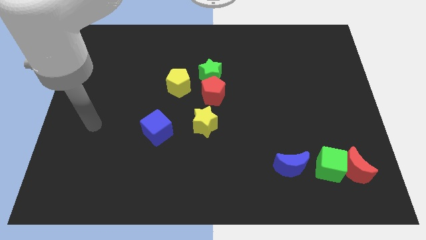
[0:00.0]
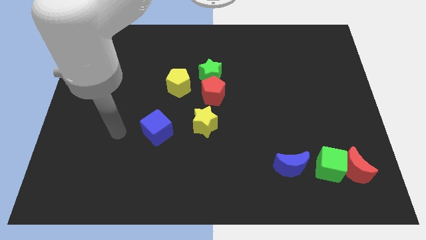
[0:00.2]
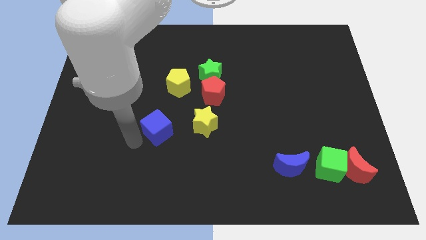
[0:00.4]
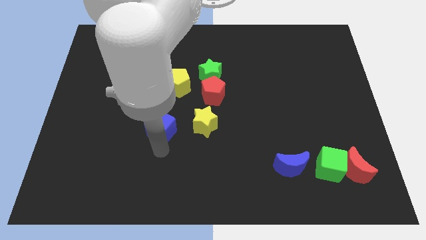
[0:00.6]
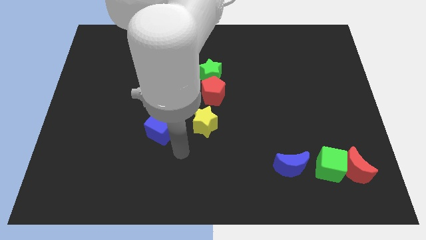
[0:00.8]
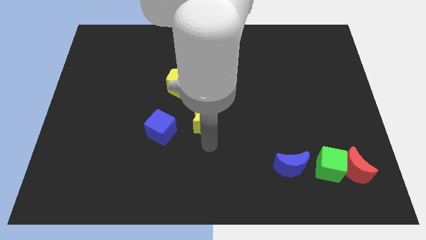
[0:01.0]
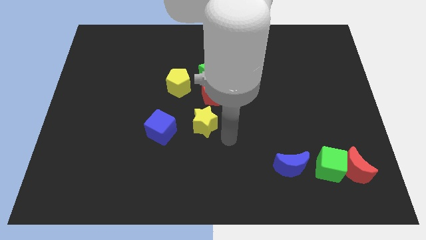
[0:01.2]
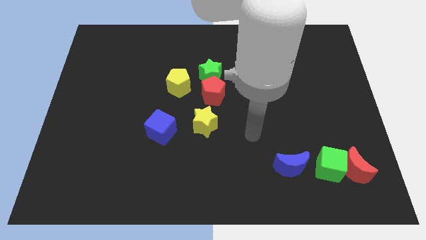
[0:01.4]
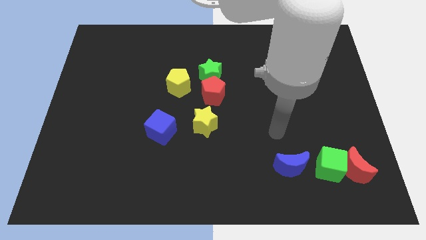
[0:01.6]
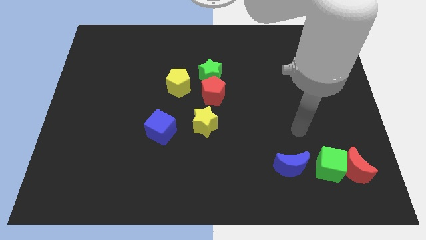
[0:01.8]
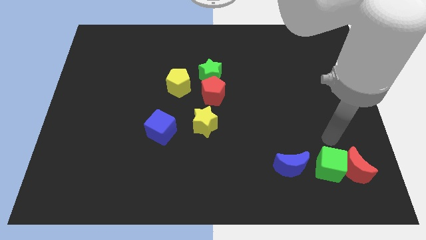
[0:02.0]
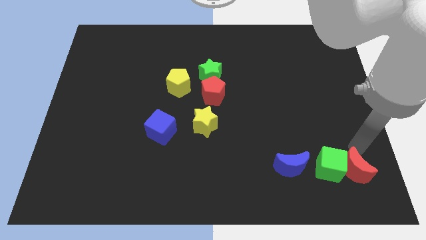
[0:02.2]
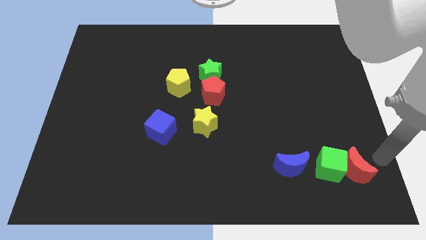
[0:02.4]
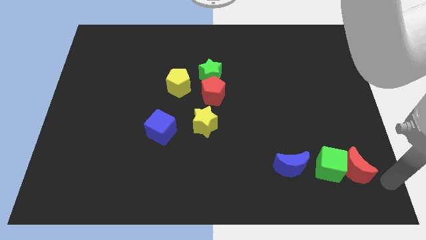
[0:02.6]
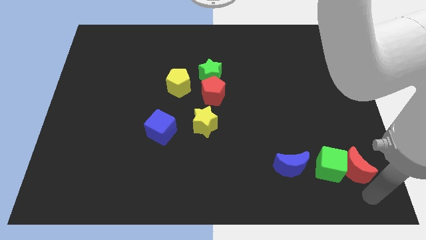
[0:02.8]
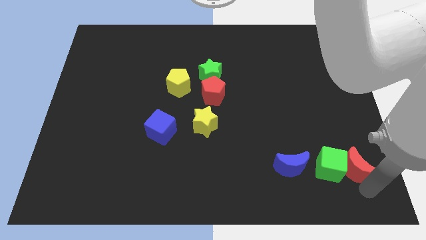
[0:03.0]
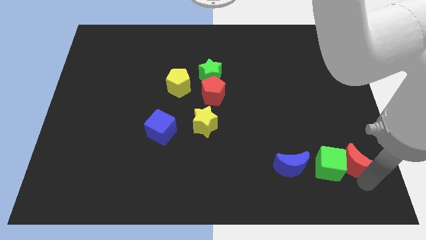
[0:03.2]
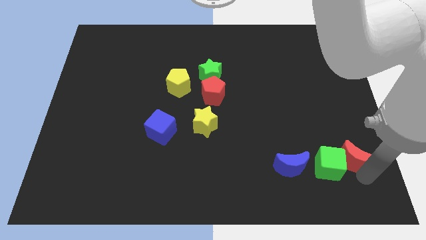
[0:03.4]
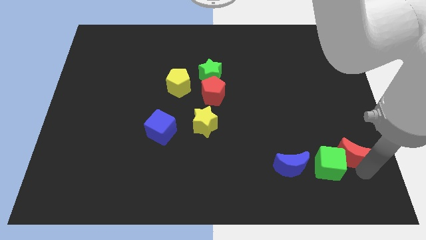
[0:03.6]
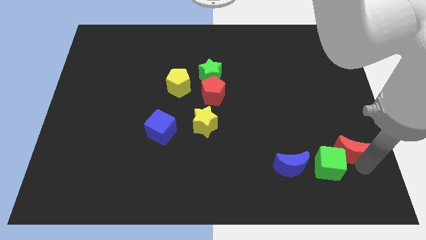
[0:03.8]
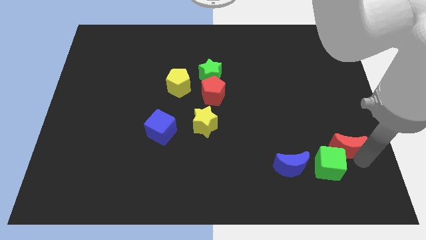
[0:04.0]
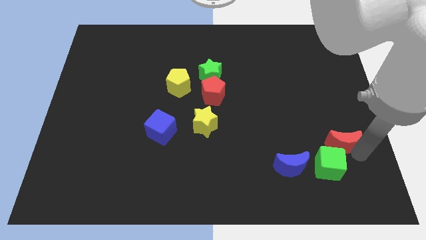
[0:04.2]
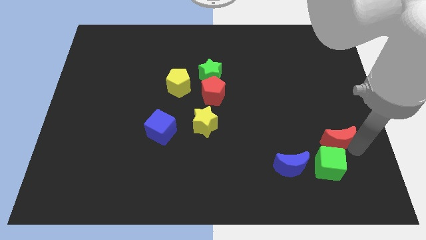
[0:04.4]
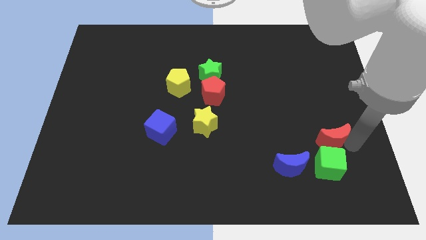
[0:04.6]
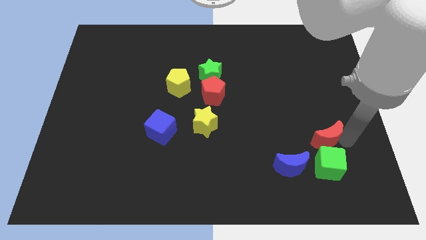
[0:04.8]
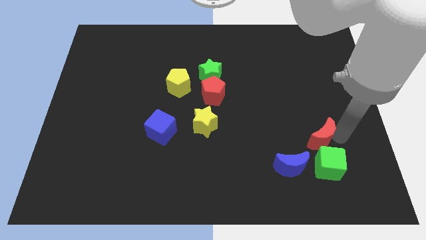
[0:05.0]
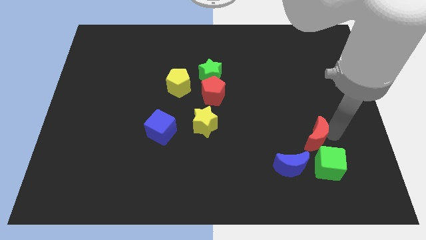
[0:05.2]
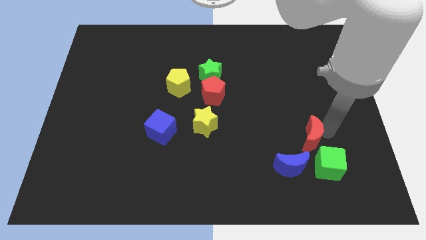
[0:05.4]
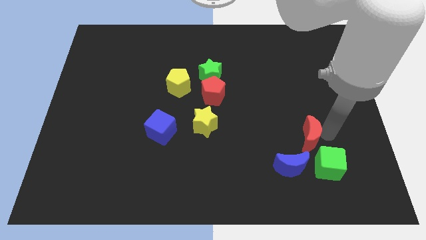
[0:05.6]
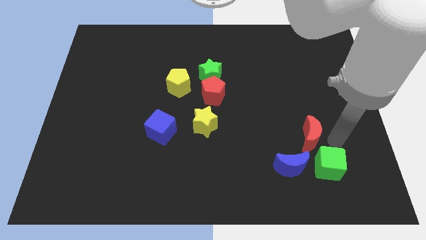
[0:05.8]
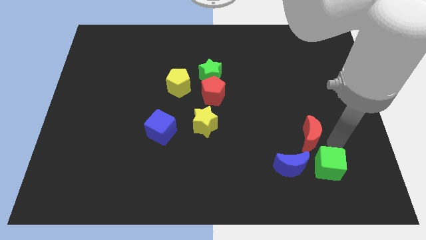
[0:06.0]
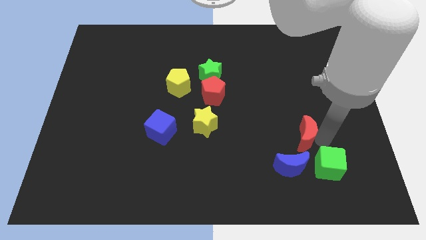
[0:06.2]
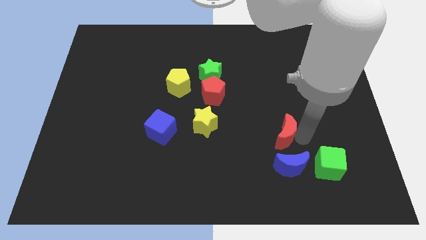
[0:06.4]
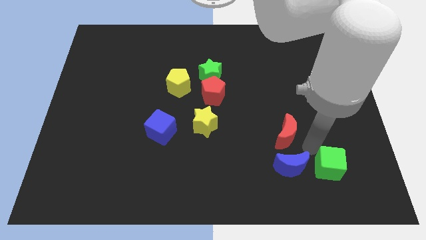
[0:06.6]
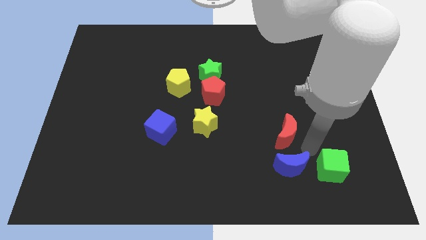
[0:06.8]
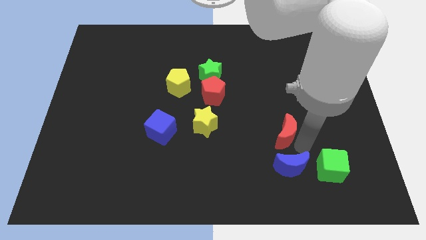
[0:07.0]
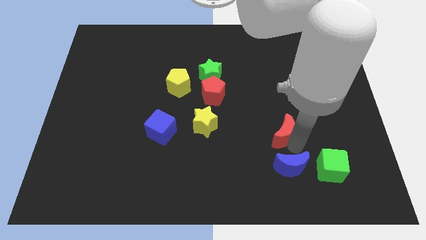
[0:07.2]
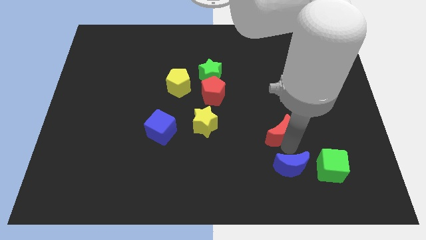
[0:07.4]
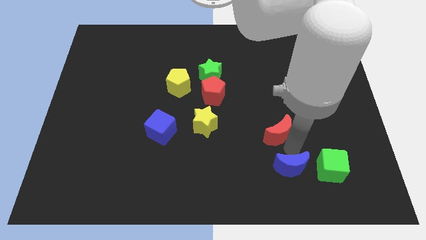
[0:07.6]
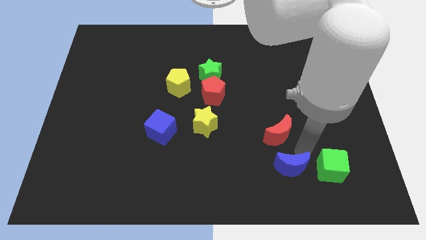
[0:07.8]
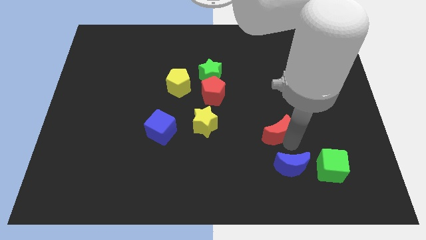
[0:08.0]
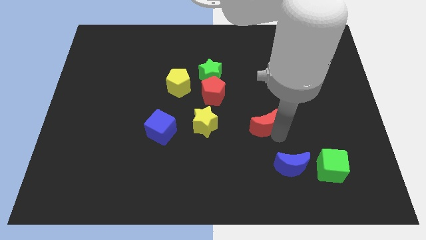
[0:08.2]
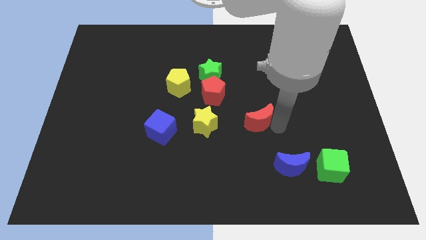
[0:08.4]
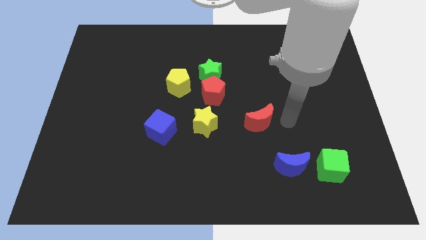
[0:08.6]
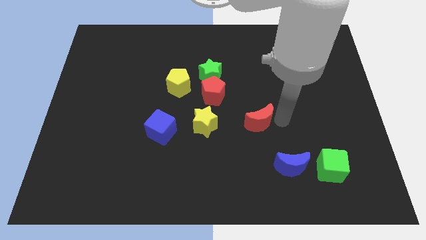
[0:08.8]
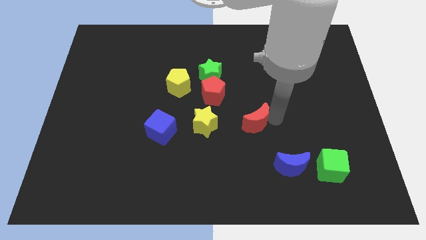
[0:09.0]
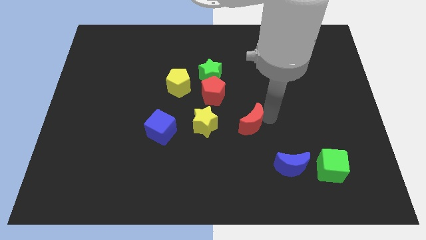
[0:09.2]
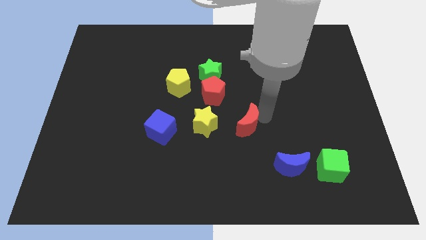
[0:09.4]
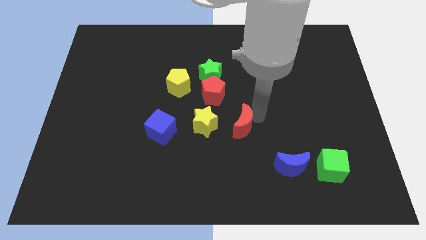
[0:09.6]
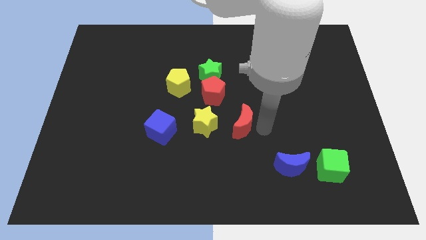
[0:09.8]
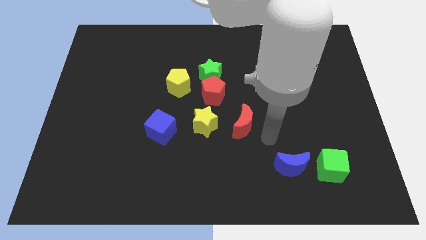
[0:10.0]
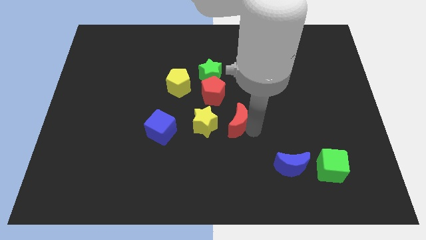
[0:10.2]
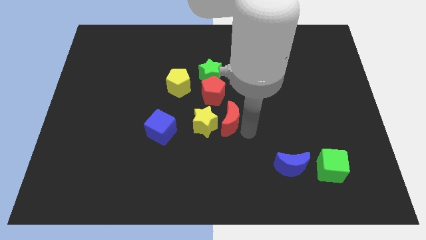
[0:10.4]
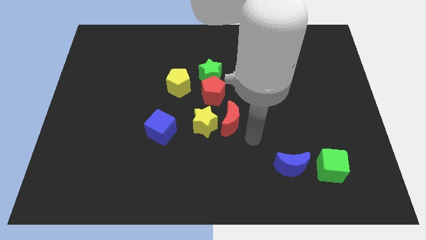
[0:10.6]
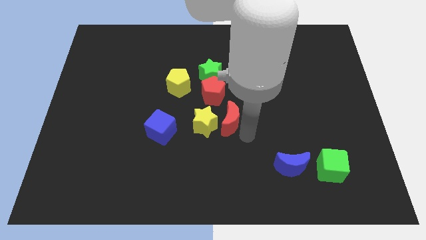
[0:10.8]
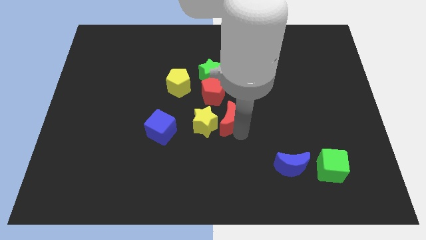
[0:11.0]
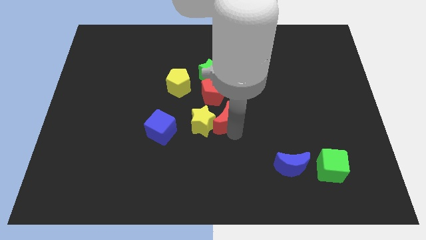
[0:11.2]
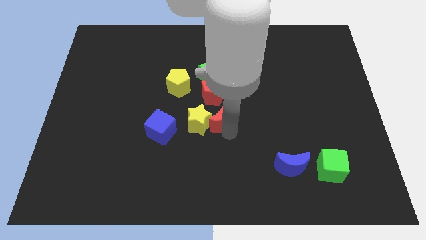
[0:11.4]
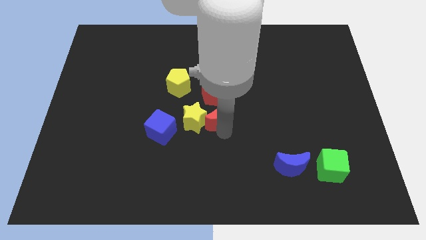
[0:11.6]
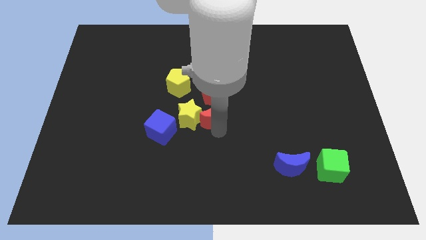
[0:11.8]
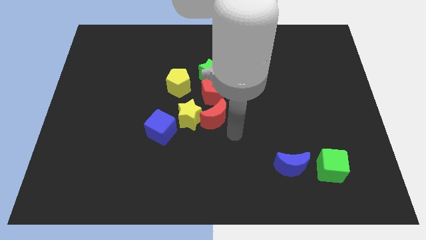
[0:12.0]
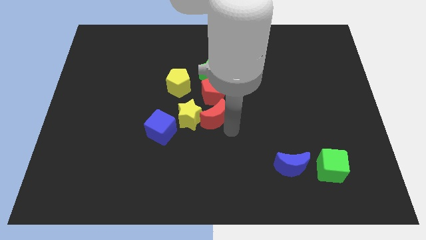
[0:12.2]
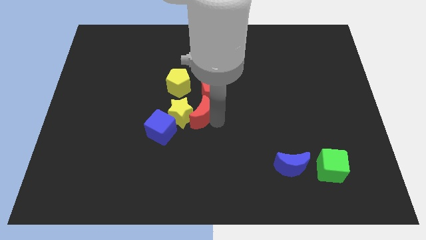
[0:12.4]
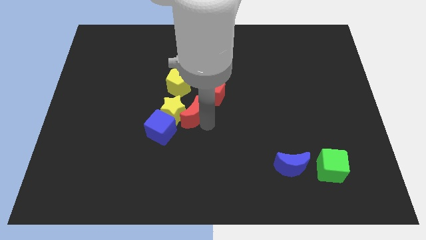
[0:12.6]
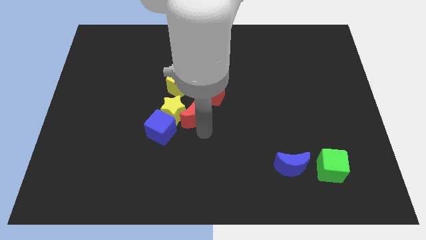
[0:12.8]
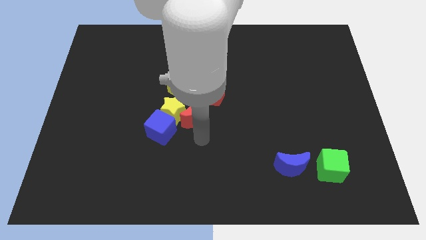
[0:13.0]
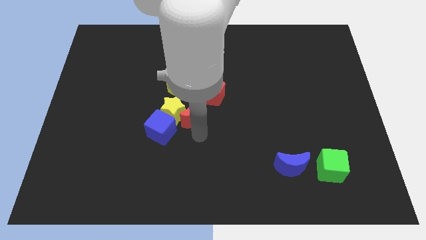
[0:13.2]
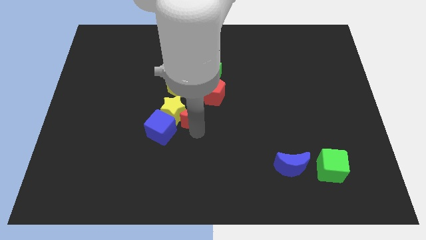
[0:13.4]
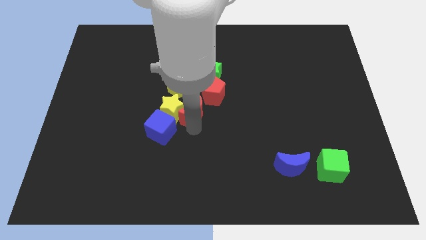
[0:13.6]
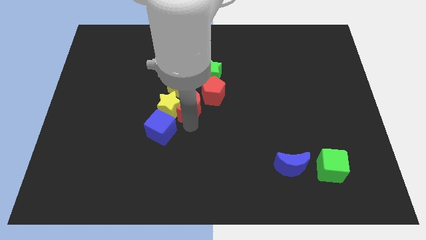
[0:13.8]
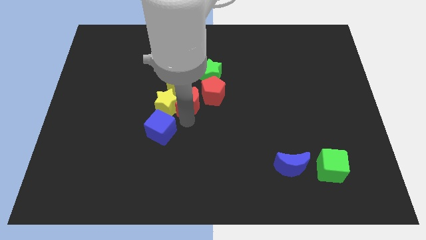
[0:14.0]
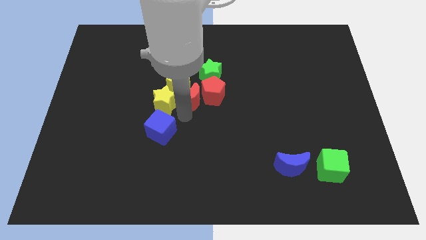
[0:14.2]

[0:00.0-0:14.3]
push the red moon next to the yellow pentagon

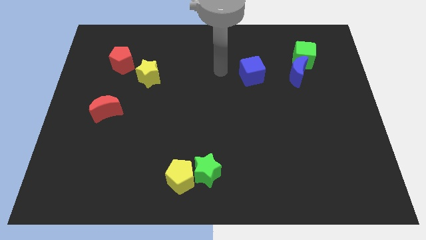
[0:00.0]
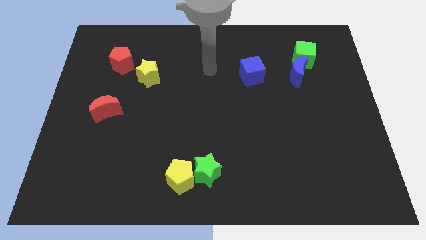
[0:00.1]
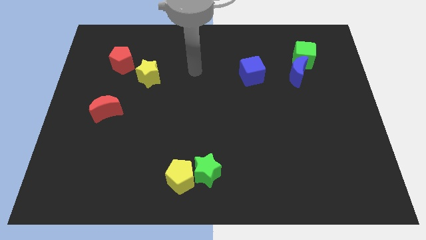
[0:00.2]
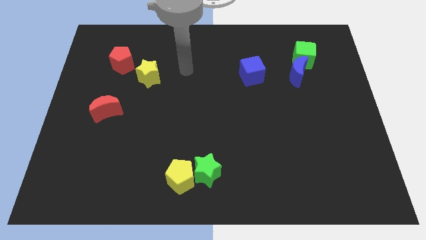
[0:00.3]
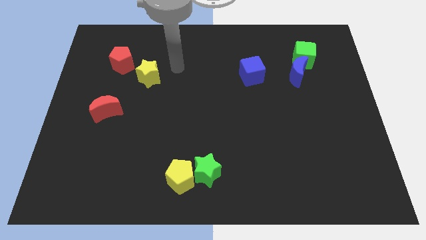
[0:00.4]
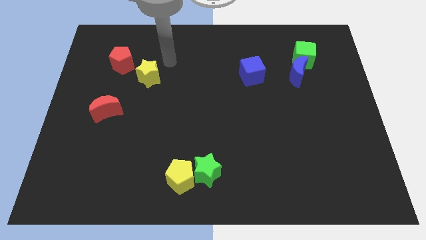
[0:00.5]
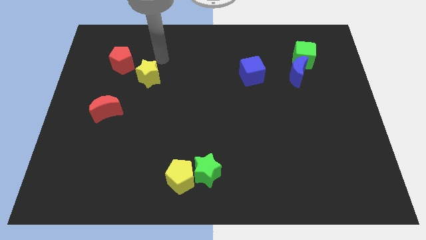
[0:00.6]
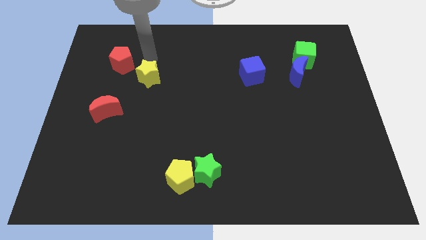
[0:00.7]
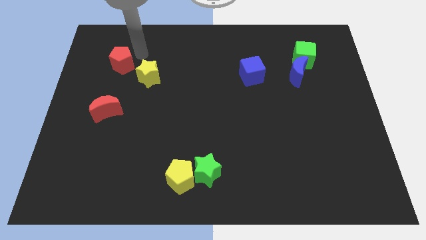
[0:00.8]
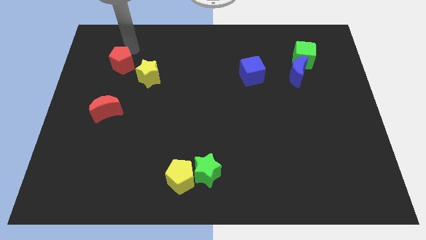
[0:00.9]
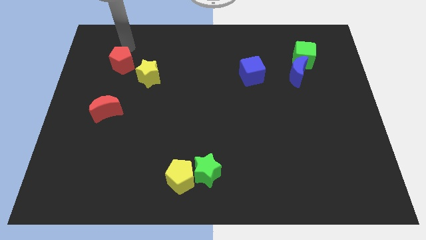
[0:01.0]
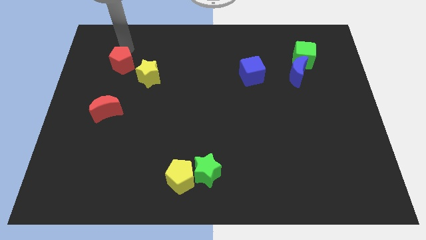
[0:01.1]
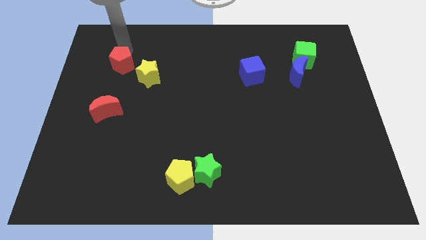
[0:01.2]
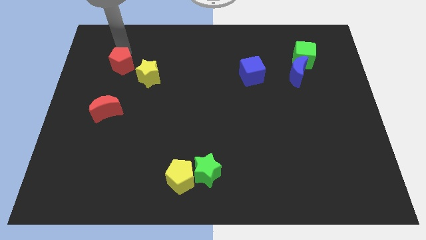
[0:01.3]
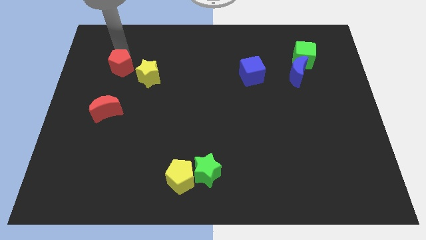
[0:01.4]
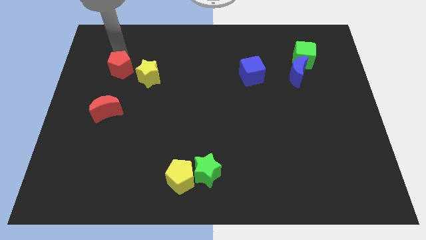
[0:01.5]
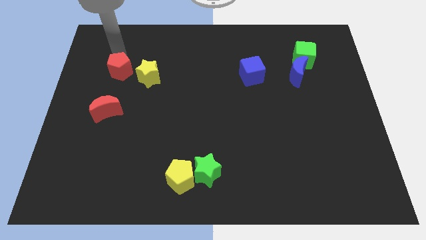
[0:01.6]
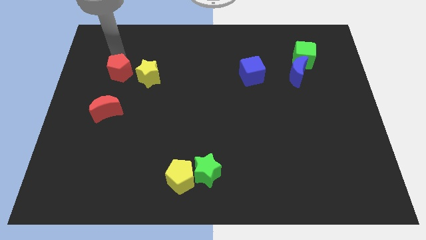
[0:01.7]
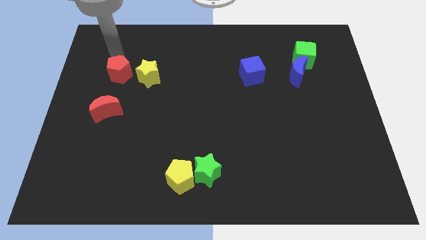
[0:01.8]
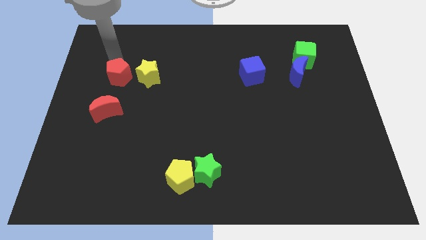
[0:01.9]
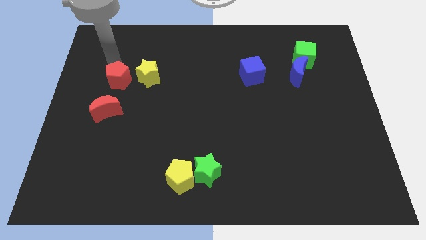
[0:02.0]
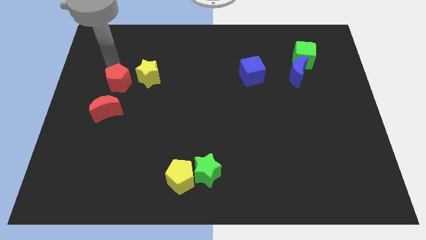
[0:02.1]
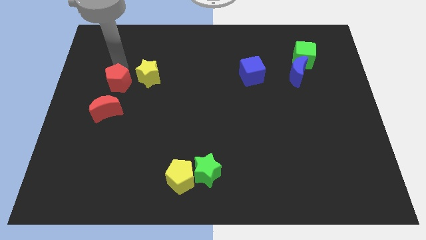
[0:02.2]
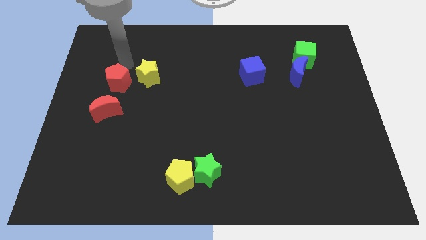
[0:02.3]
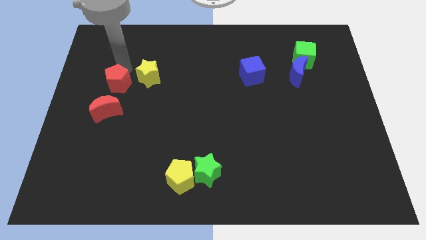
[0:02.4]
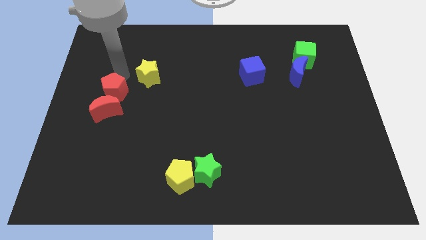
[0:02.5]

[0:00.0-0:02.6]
push the red pentagon towards the red moon
